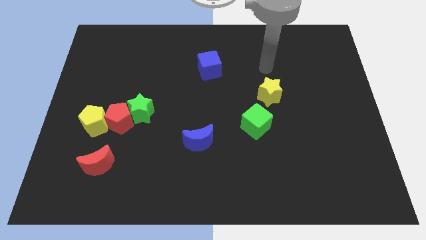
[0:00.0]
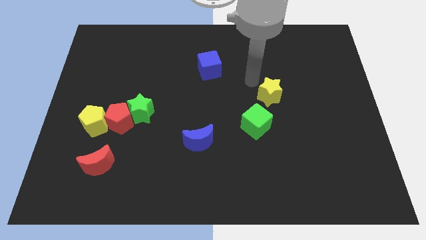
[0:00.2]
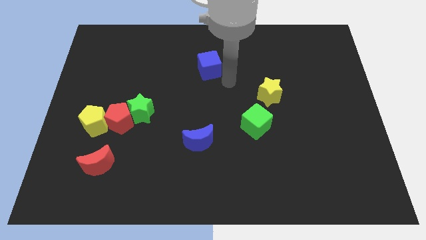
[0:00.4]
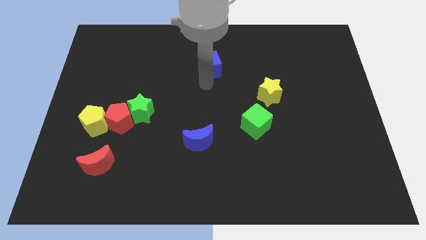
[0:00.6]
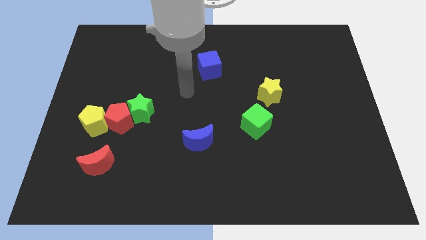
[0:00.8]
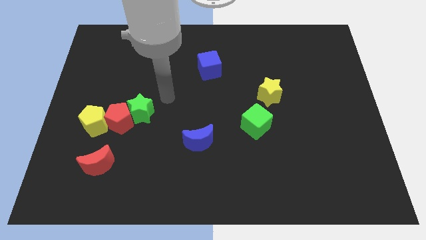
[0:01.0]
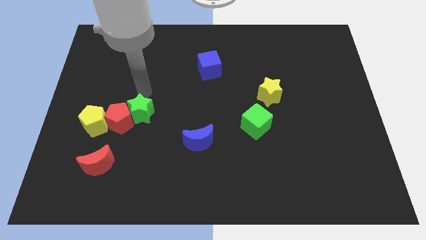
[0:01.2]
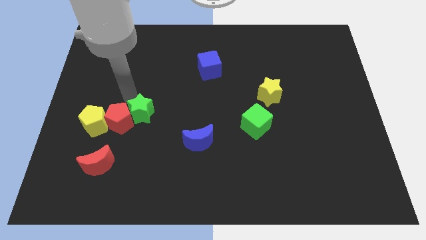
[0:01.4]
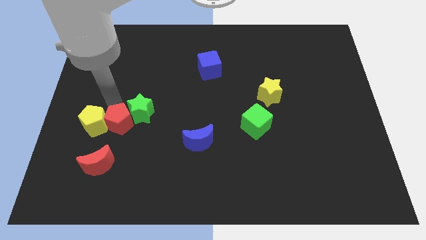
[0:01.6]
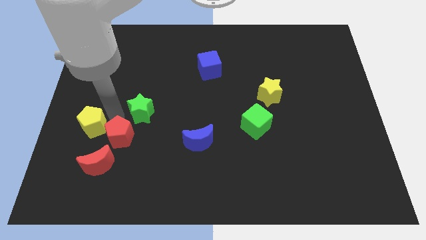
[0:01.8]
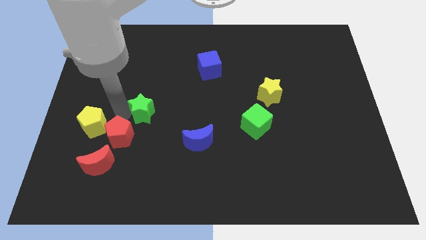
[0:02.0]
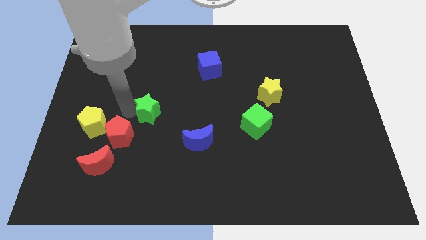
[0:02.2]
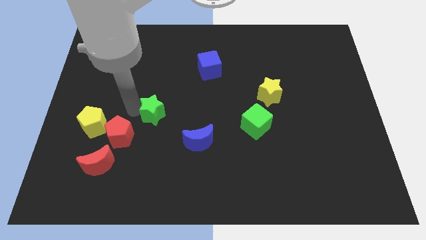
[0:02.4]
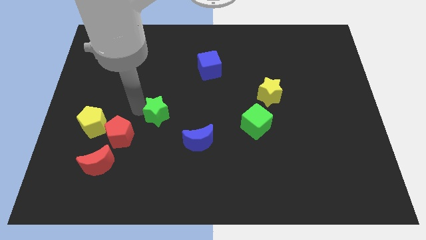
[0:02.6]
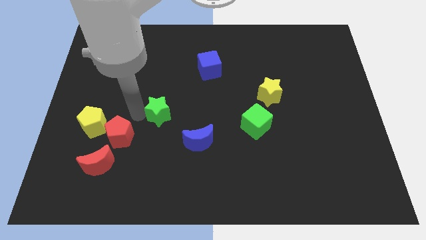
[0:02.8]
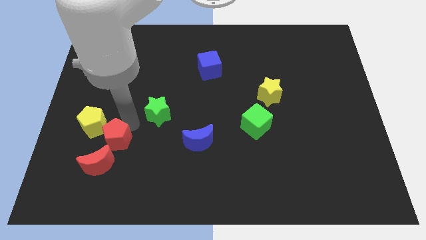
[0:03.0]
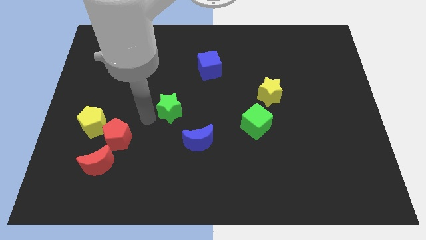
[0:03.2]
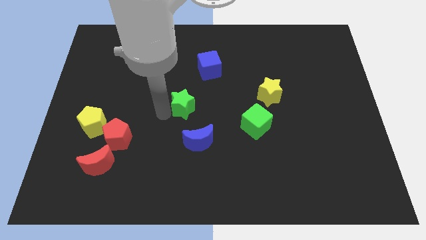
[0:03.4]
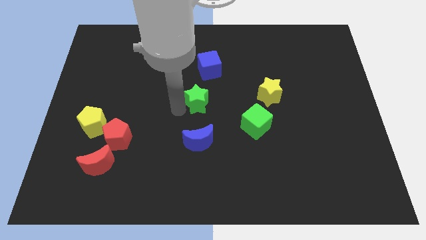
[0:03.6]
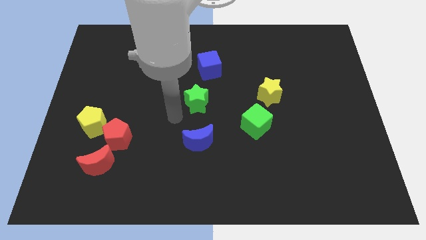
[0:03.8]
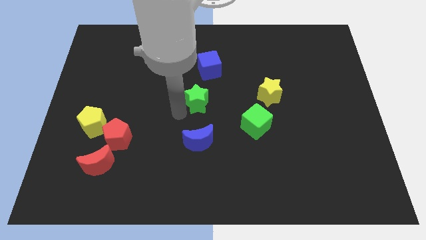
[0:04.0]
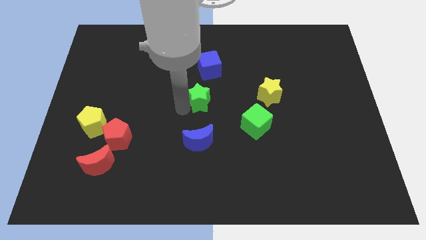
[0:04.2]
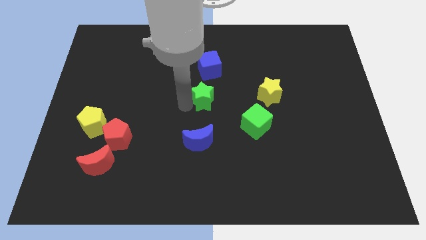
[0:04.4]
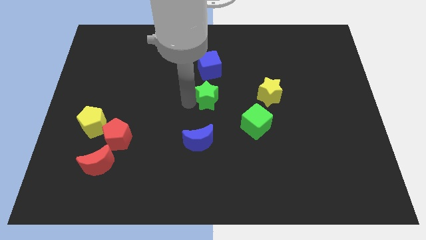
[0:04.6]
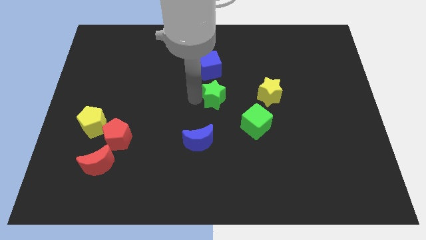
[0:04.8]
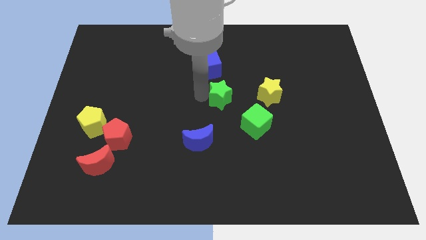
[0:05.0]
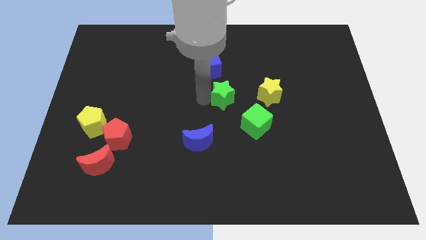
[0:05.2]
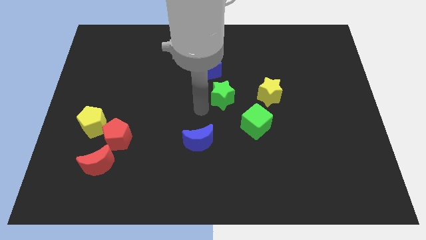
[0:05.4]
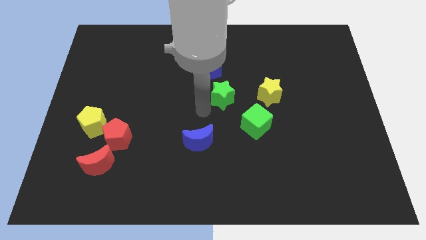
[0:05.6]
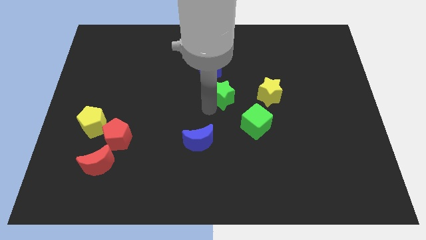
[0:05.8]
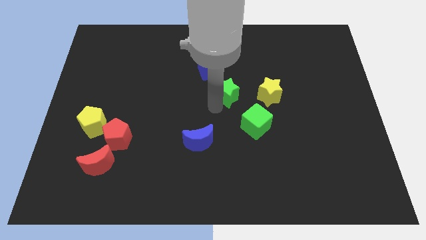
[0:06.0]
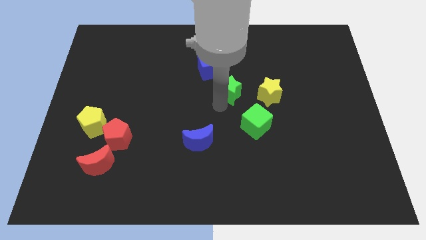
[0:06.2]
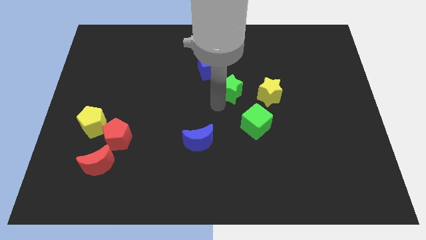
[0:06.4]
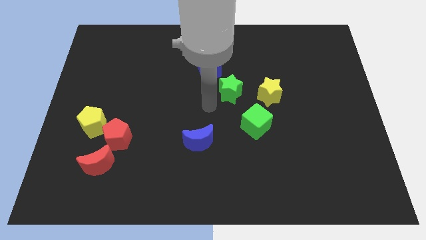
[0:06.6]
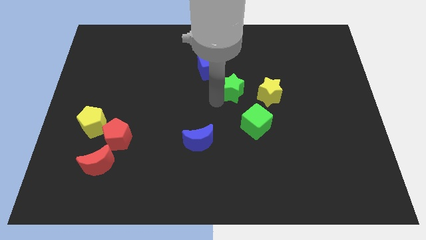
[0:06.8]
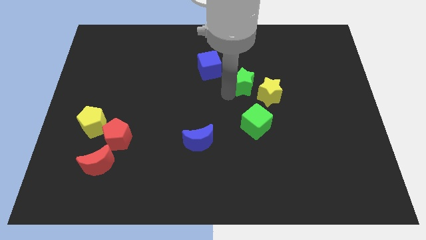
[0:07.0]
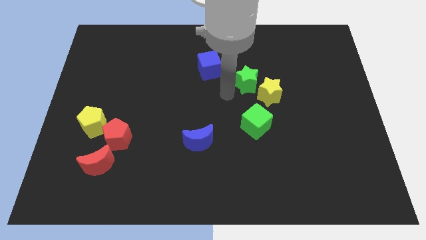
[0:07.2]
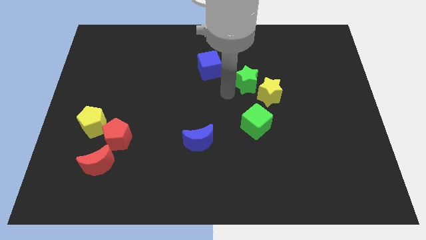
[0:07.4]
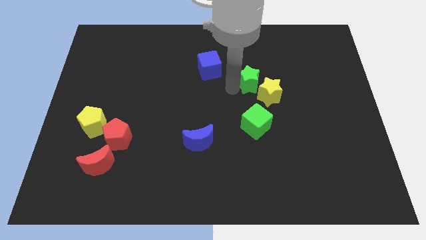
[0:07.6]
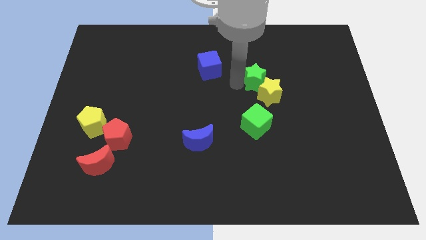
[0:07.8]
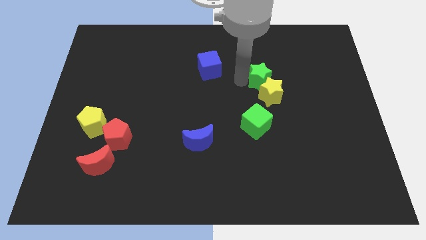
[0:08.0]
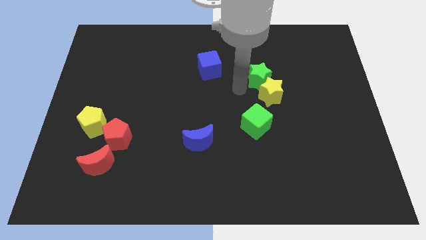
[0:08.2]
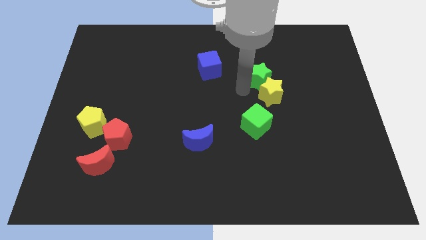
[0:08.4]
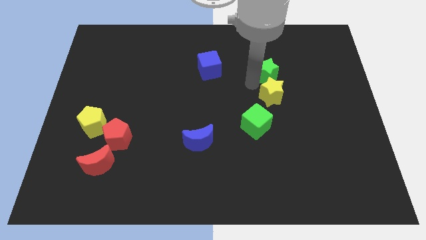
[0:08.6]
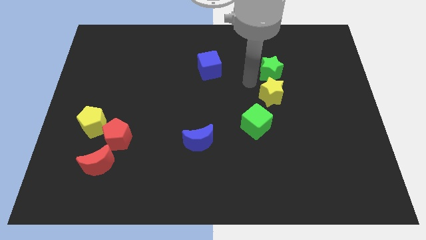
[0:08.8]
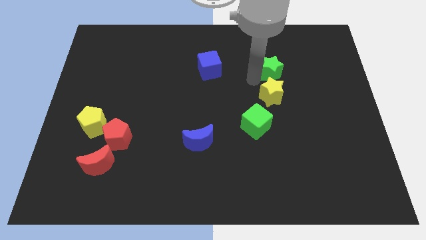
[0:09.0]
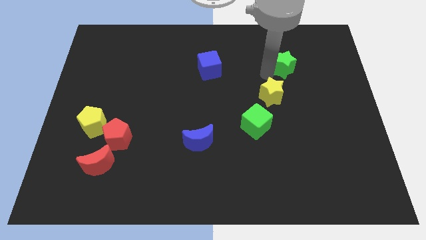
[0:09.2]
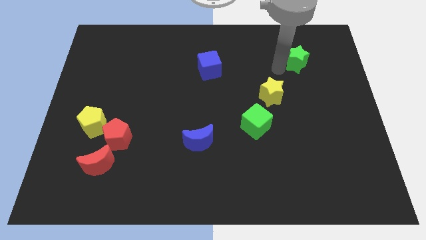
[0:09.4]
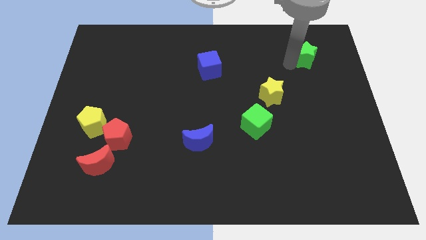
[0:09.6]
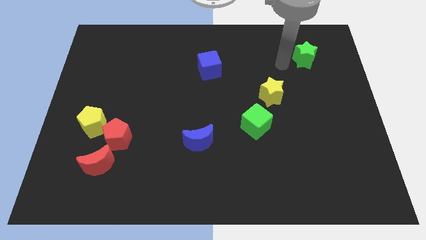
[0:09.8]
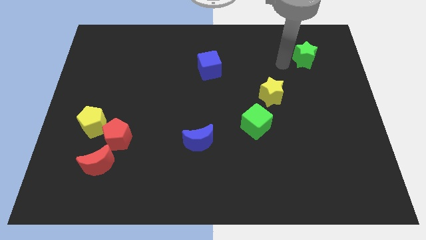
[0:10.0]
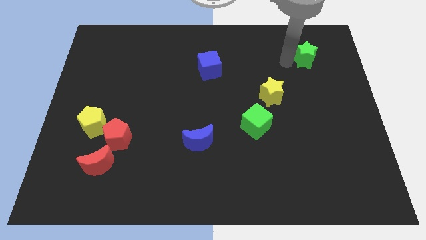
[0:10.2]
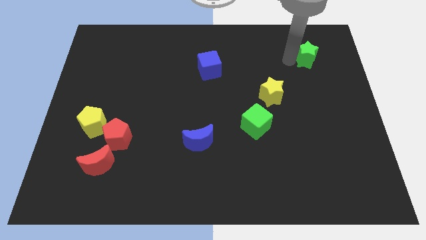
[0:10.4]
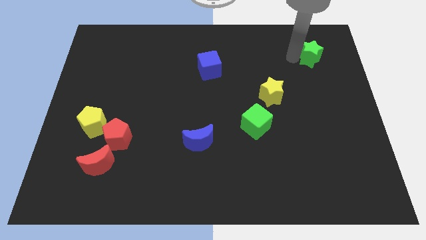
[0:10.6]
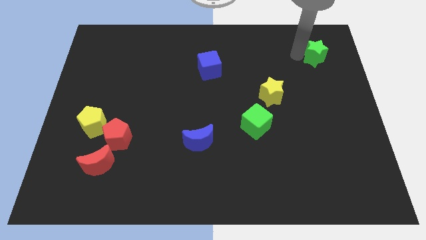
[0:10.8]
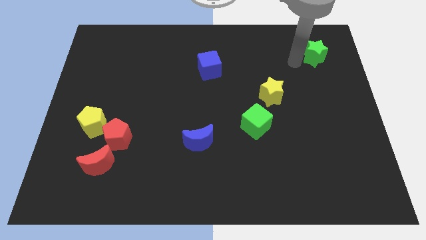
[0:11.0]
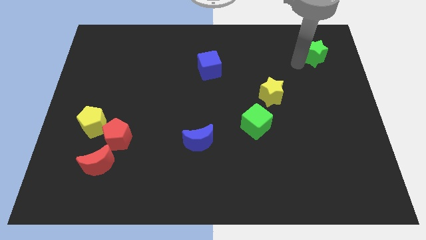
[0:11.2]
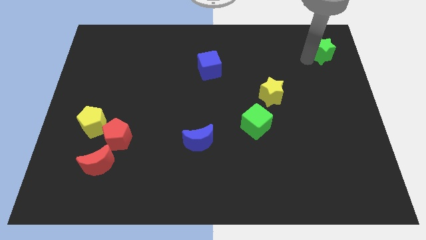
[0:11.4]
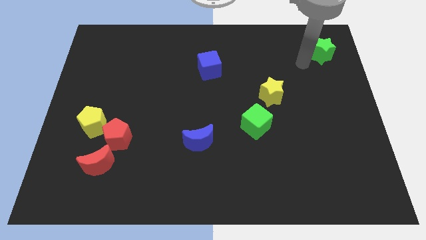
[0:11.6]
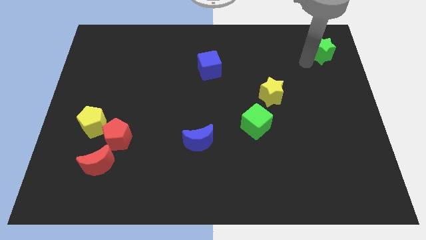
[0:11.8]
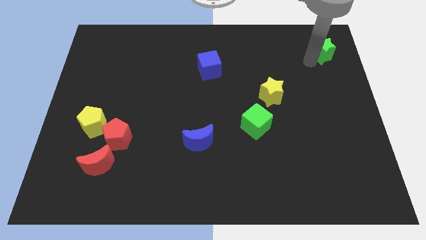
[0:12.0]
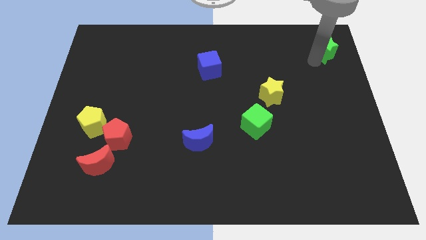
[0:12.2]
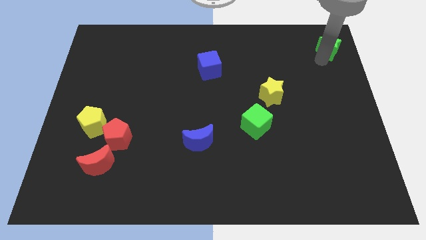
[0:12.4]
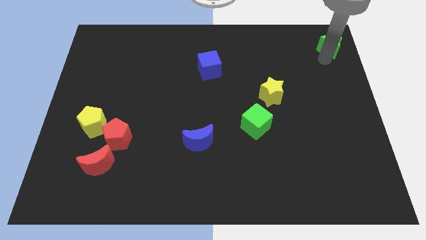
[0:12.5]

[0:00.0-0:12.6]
push the green star to the top right of the board

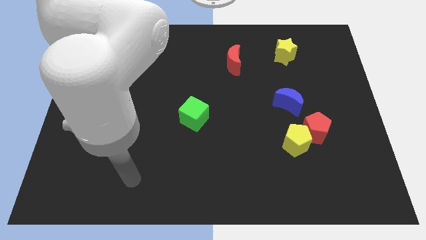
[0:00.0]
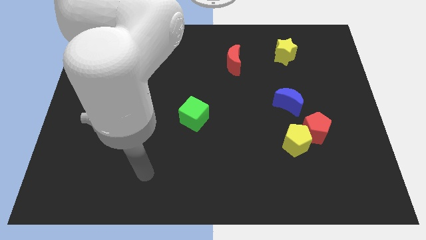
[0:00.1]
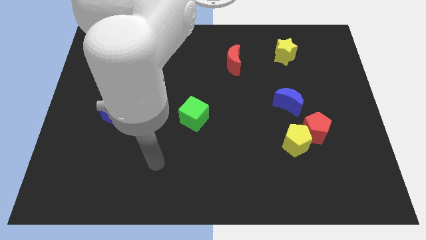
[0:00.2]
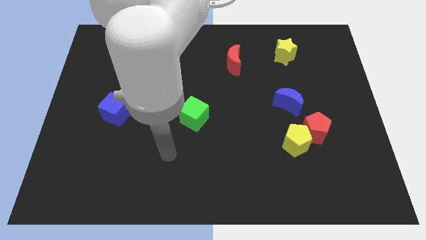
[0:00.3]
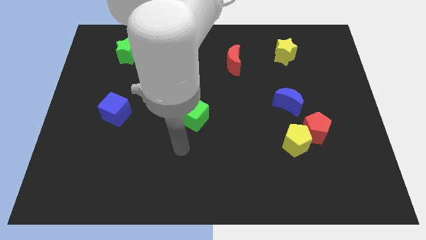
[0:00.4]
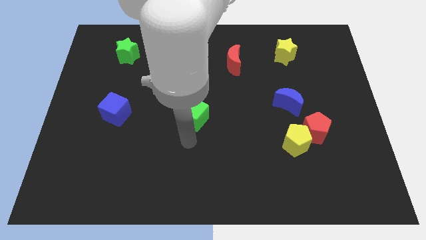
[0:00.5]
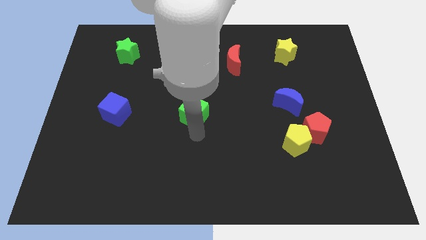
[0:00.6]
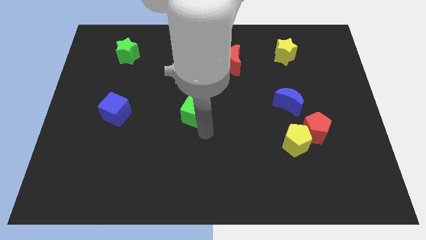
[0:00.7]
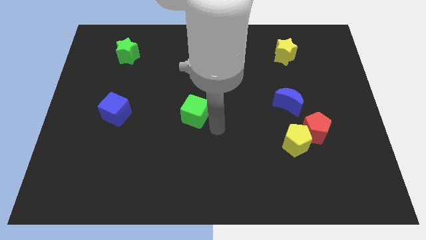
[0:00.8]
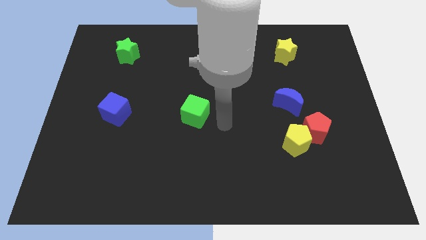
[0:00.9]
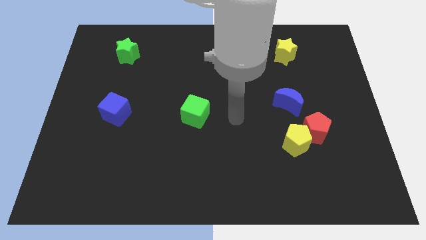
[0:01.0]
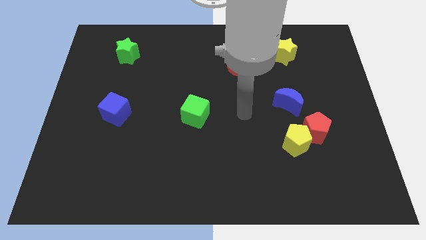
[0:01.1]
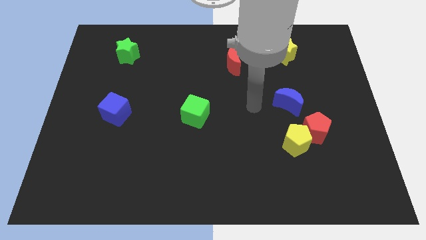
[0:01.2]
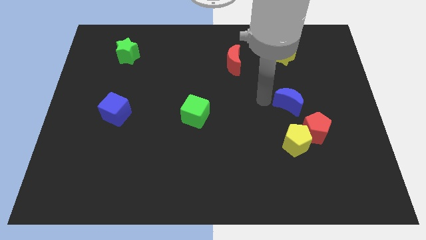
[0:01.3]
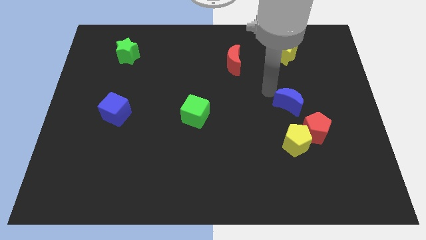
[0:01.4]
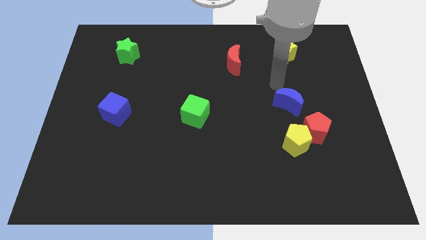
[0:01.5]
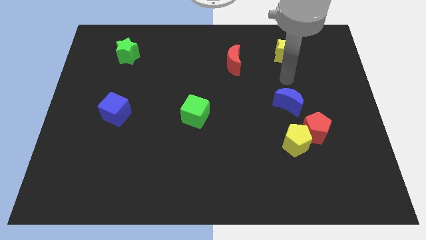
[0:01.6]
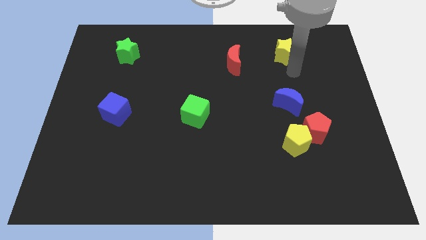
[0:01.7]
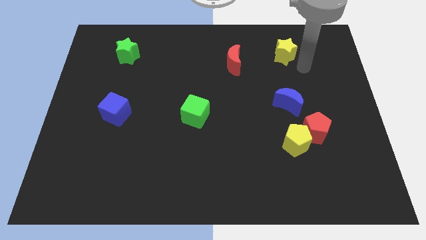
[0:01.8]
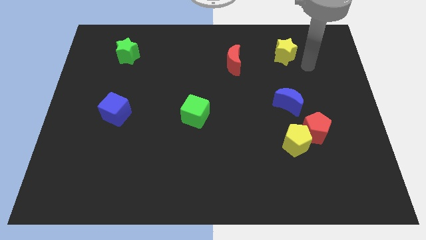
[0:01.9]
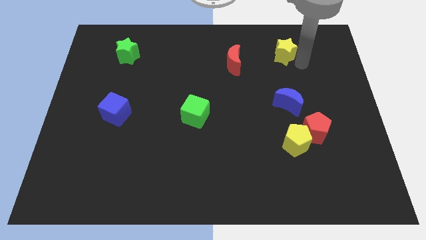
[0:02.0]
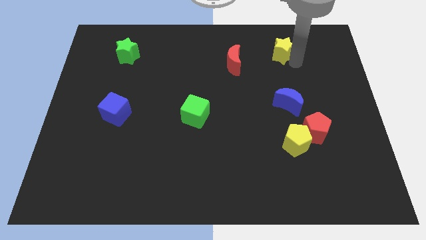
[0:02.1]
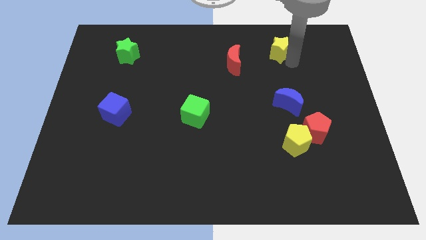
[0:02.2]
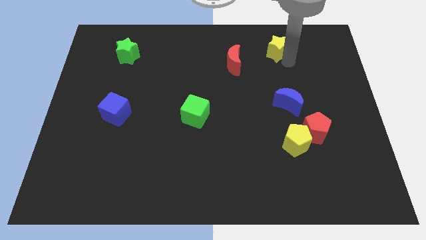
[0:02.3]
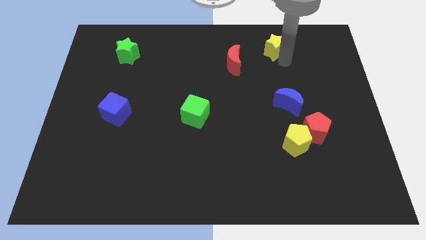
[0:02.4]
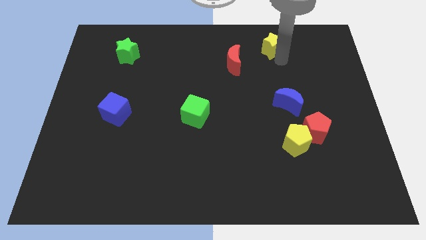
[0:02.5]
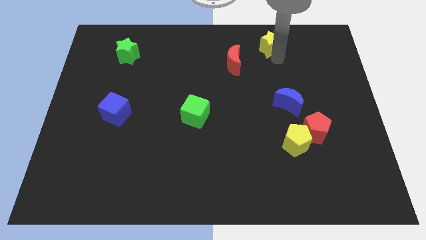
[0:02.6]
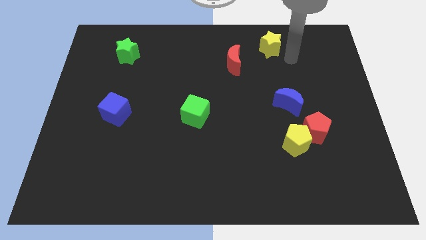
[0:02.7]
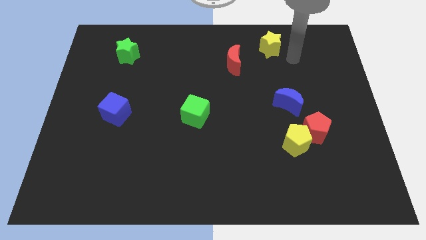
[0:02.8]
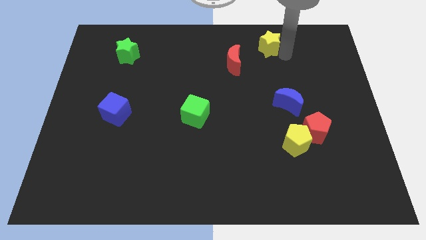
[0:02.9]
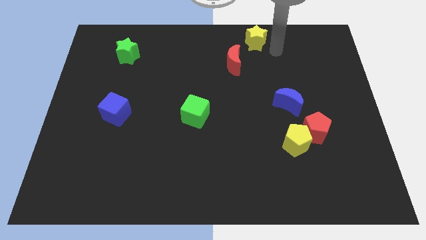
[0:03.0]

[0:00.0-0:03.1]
put the yellow star to the top side
